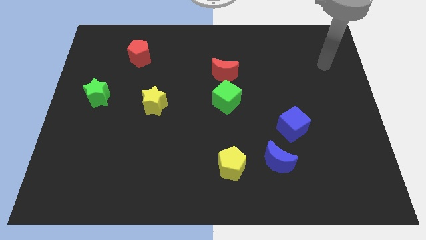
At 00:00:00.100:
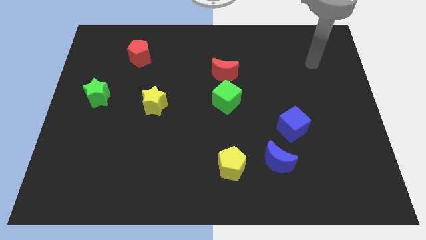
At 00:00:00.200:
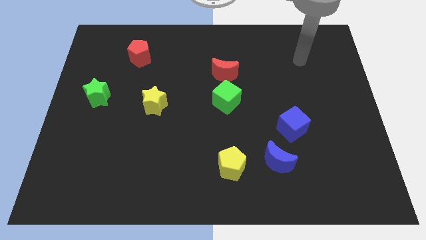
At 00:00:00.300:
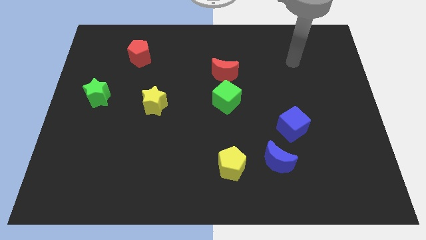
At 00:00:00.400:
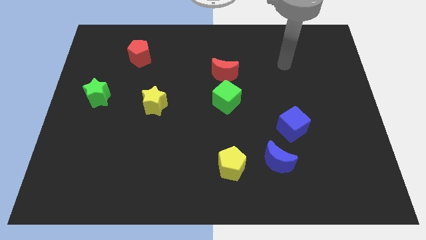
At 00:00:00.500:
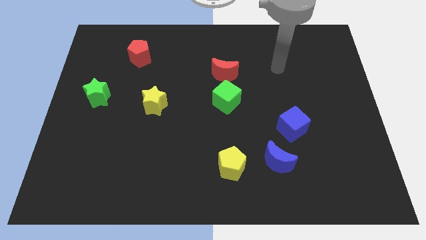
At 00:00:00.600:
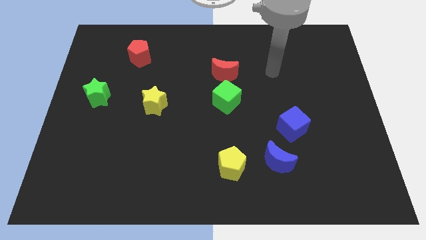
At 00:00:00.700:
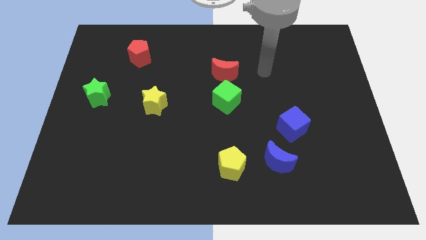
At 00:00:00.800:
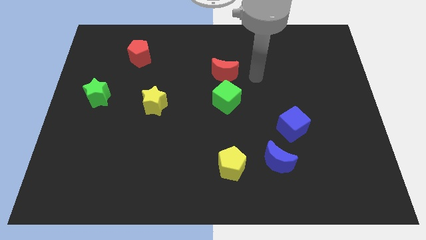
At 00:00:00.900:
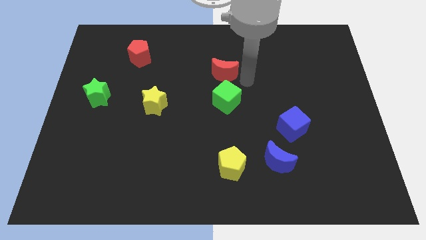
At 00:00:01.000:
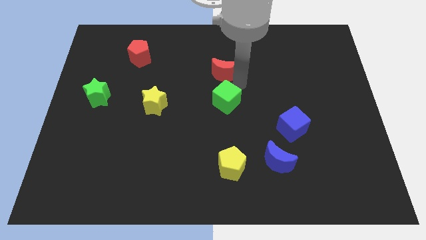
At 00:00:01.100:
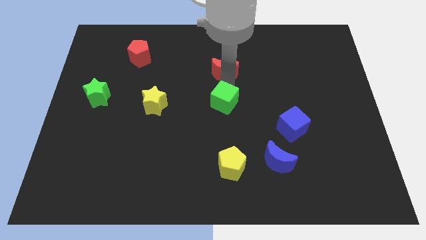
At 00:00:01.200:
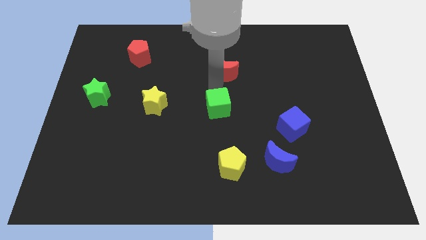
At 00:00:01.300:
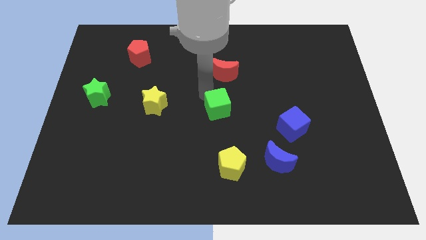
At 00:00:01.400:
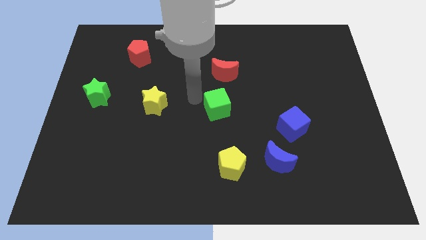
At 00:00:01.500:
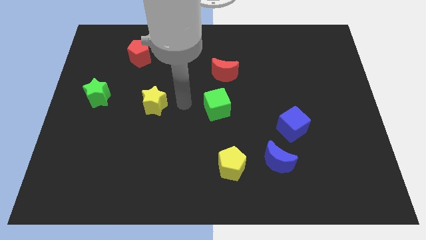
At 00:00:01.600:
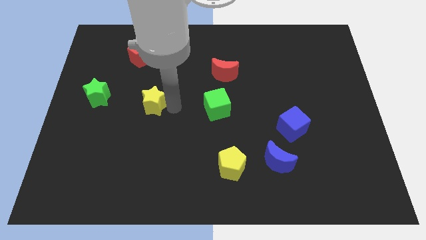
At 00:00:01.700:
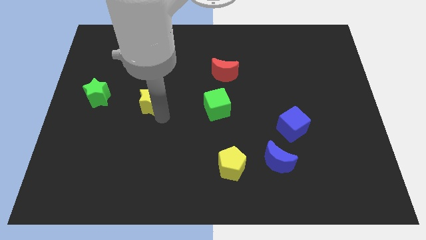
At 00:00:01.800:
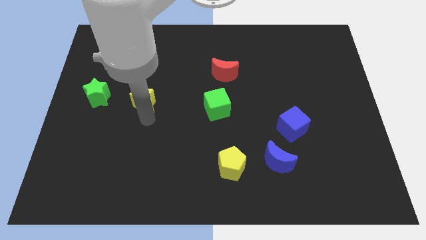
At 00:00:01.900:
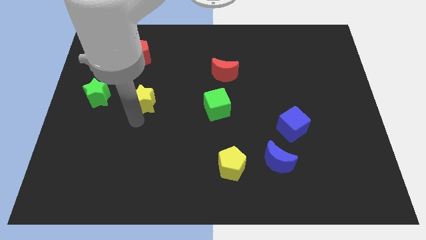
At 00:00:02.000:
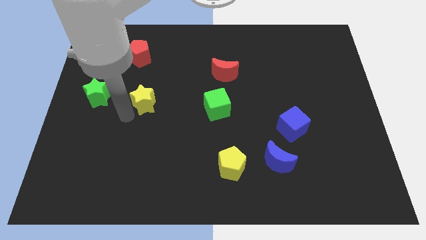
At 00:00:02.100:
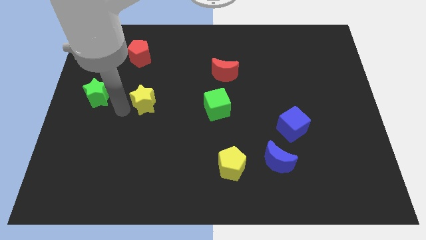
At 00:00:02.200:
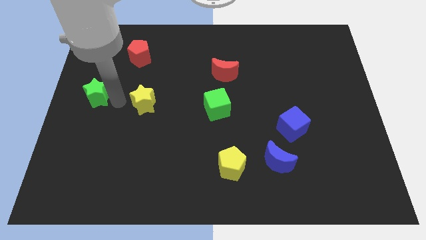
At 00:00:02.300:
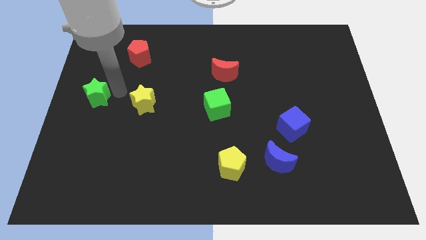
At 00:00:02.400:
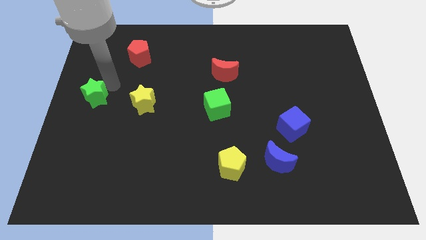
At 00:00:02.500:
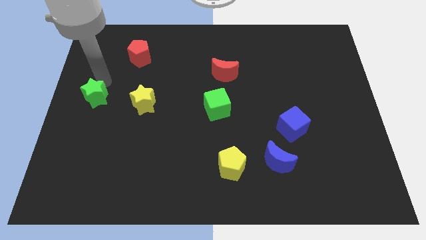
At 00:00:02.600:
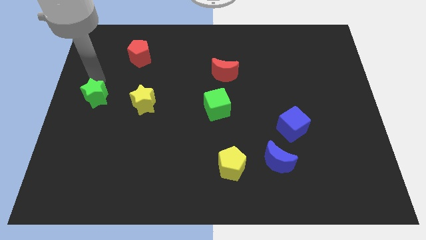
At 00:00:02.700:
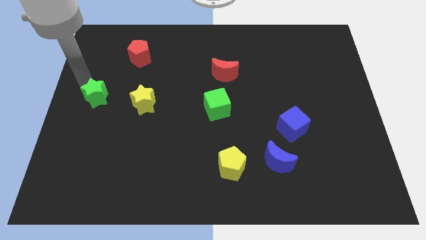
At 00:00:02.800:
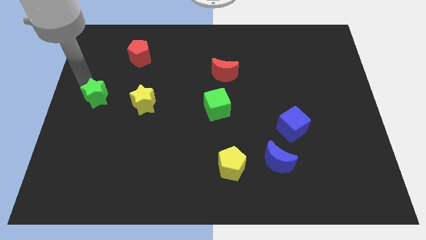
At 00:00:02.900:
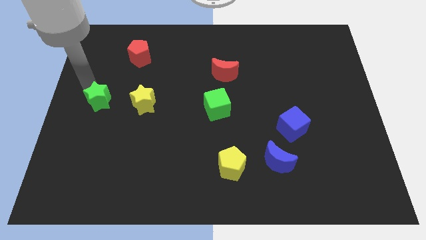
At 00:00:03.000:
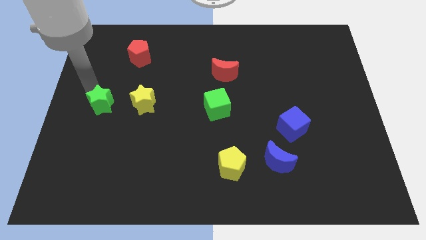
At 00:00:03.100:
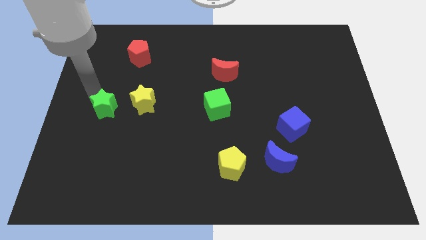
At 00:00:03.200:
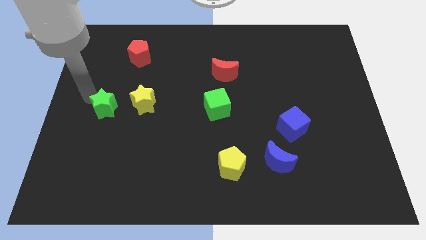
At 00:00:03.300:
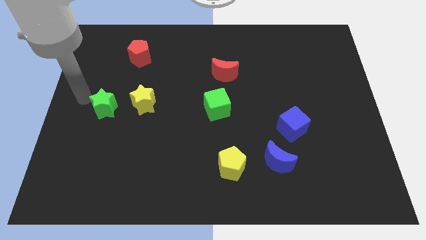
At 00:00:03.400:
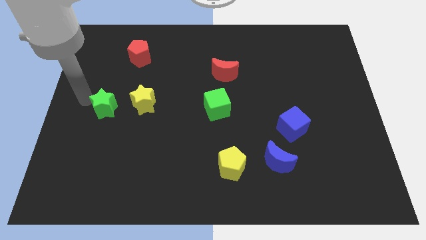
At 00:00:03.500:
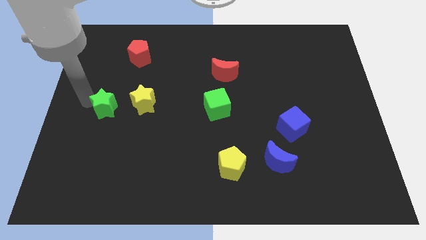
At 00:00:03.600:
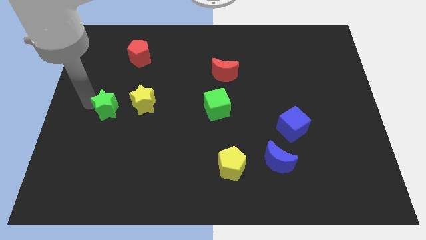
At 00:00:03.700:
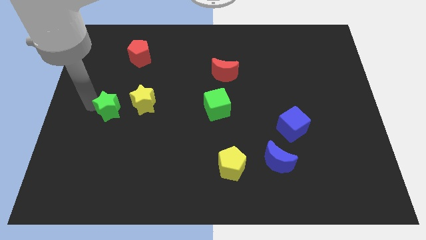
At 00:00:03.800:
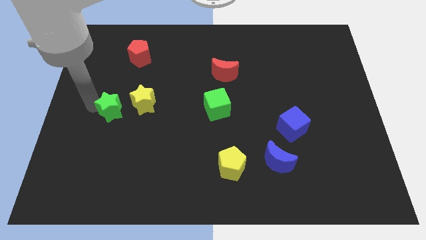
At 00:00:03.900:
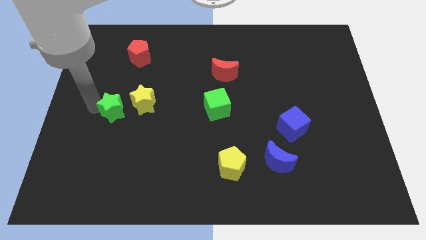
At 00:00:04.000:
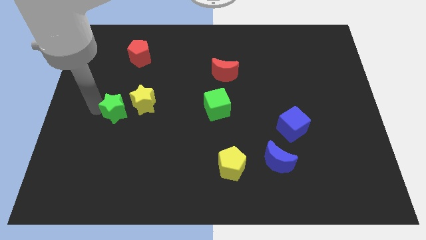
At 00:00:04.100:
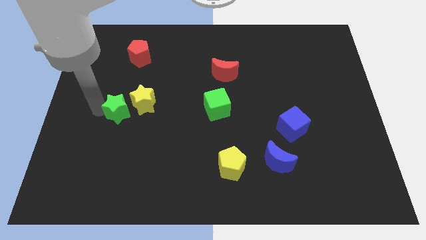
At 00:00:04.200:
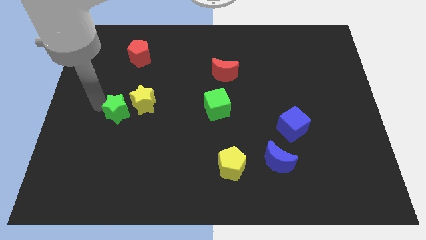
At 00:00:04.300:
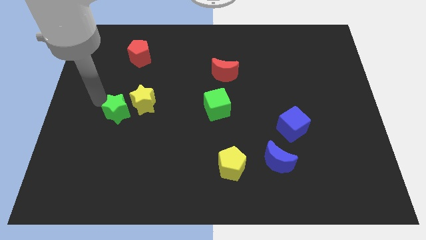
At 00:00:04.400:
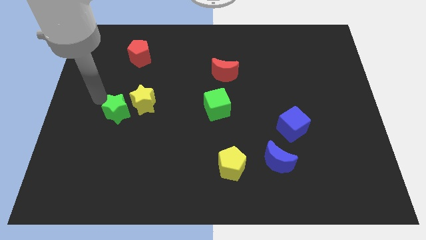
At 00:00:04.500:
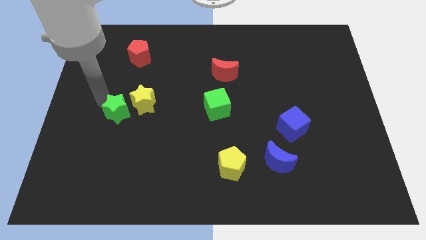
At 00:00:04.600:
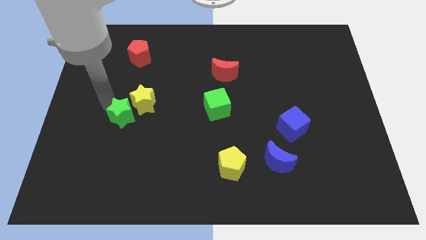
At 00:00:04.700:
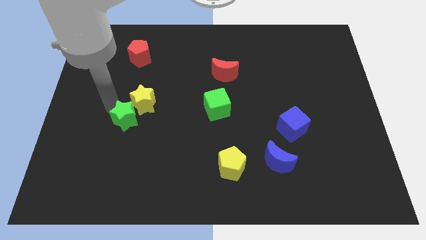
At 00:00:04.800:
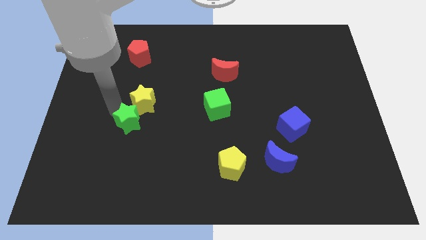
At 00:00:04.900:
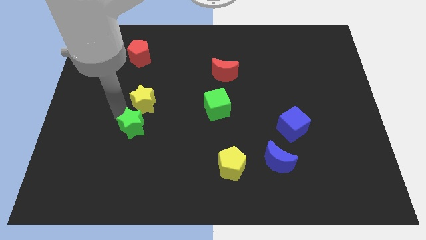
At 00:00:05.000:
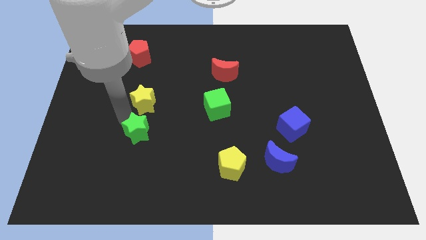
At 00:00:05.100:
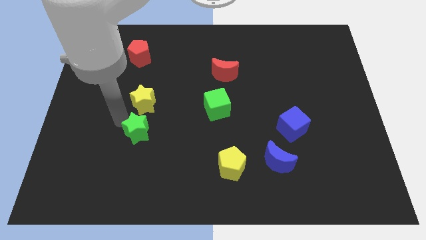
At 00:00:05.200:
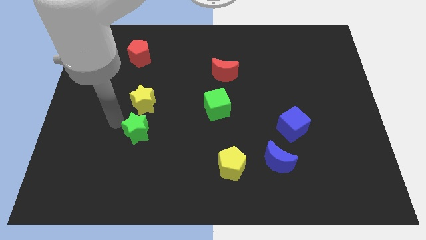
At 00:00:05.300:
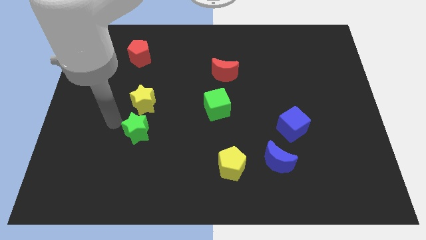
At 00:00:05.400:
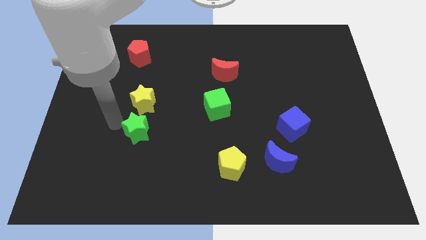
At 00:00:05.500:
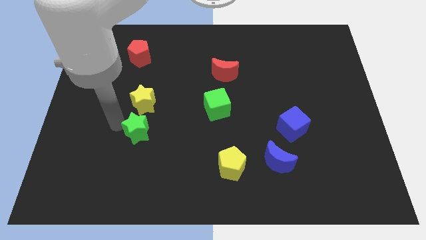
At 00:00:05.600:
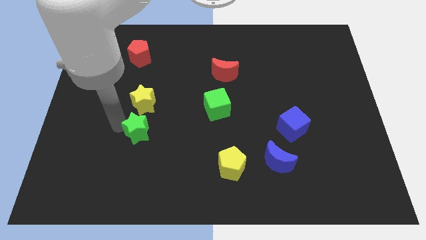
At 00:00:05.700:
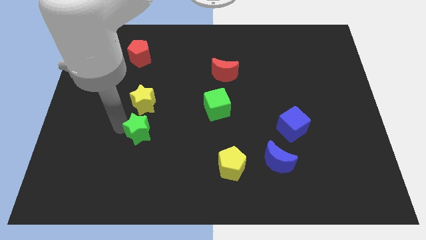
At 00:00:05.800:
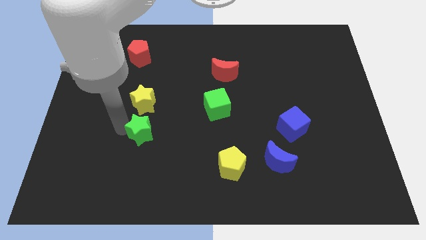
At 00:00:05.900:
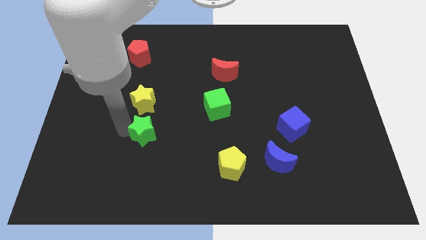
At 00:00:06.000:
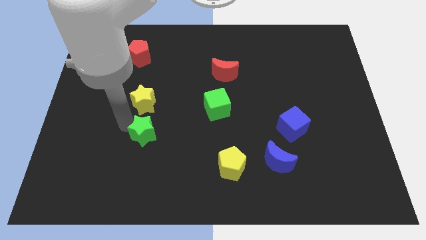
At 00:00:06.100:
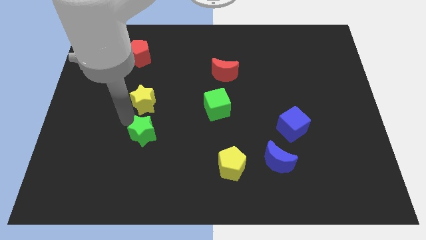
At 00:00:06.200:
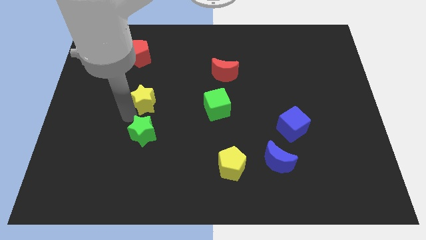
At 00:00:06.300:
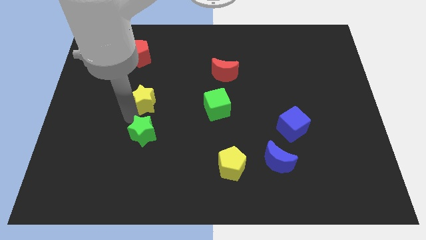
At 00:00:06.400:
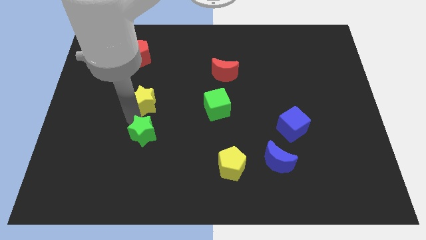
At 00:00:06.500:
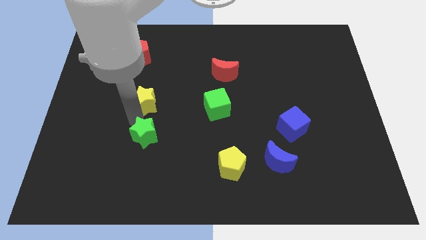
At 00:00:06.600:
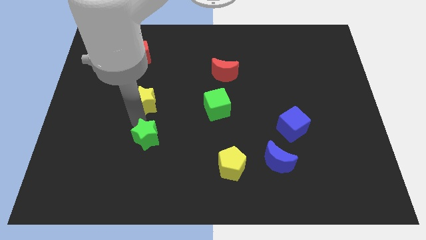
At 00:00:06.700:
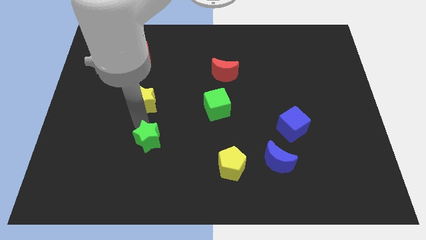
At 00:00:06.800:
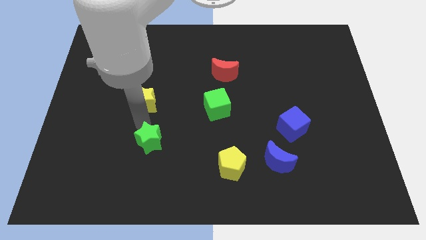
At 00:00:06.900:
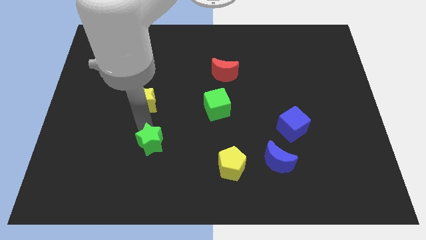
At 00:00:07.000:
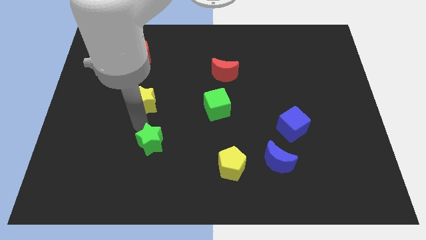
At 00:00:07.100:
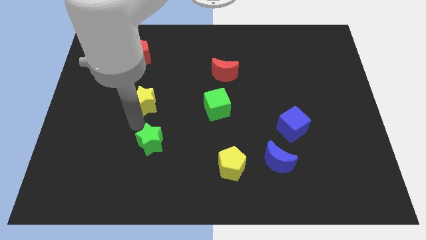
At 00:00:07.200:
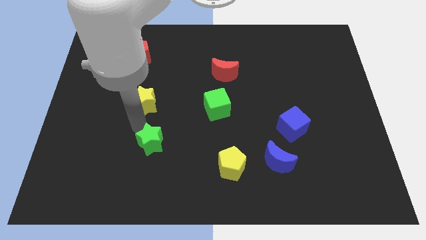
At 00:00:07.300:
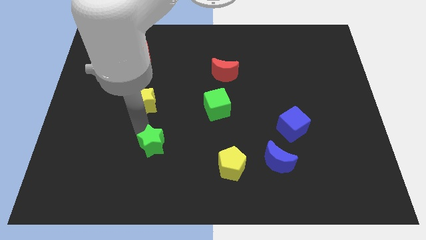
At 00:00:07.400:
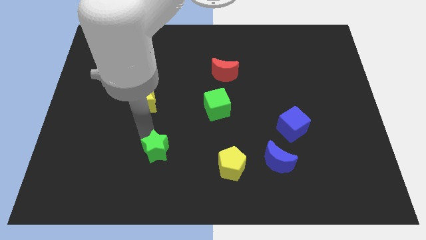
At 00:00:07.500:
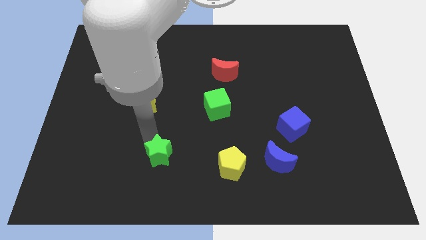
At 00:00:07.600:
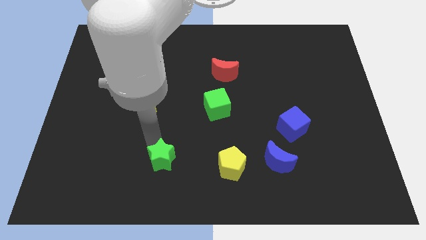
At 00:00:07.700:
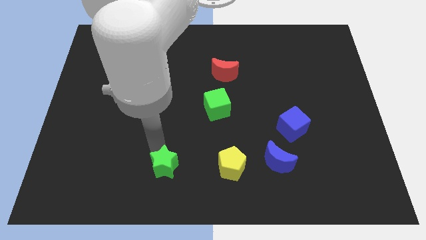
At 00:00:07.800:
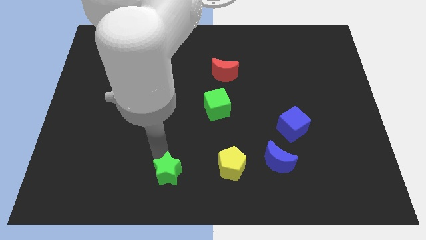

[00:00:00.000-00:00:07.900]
slide the green star to the bottom
